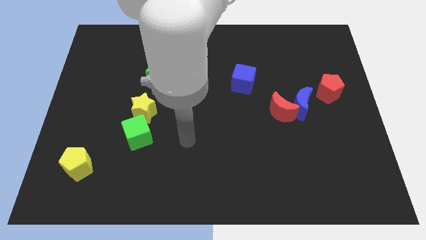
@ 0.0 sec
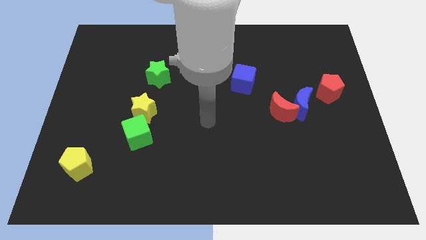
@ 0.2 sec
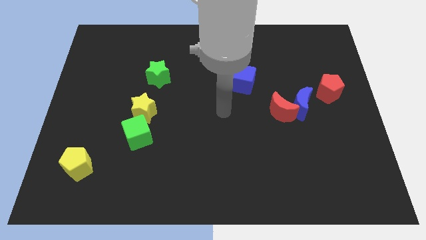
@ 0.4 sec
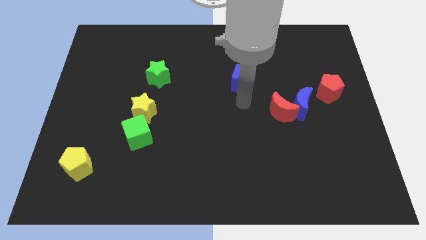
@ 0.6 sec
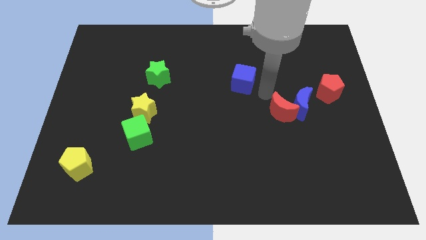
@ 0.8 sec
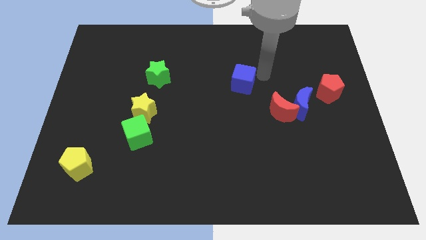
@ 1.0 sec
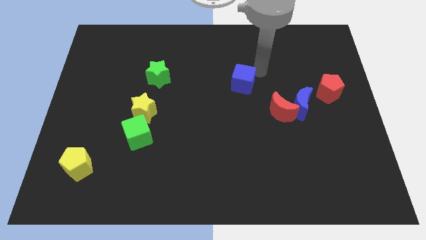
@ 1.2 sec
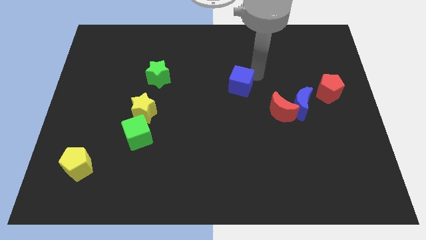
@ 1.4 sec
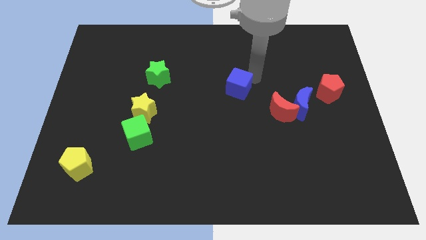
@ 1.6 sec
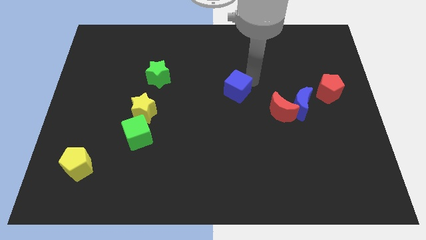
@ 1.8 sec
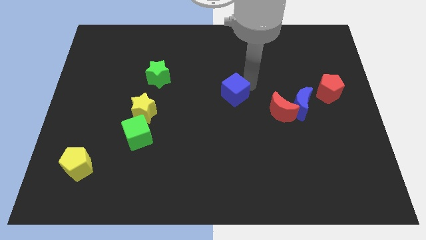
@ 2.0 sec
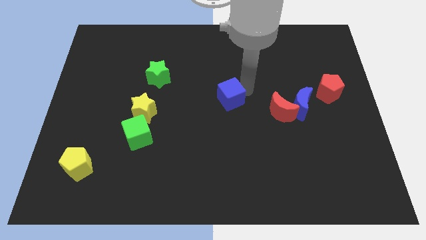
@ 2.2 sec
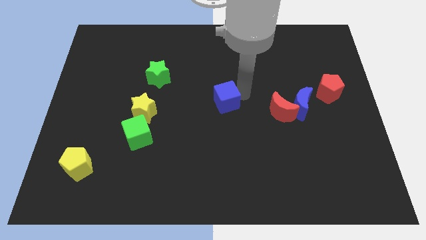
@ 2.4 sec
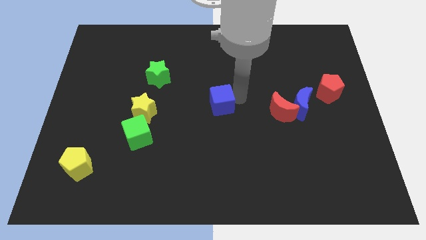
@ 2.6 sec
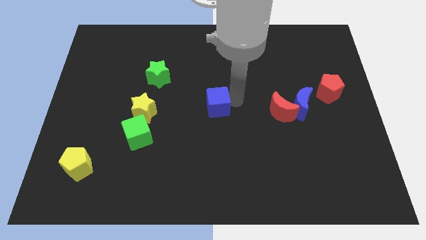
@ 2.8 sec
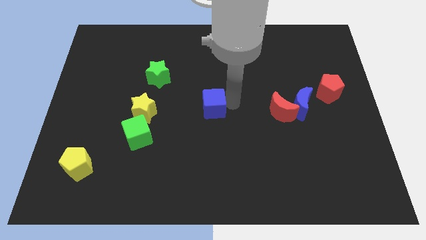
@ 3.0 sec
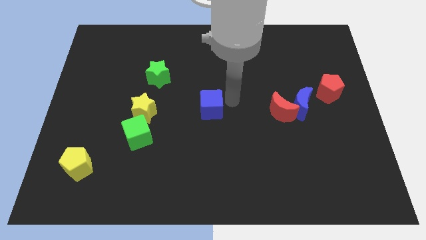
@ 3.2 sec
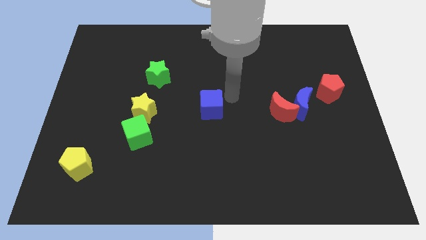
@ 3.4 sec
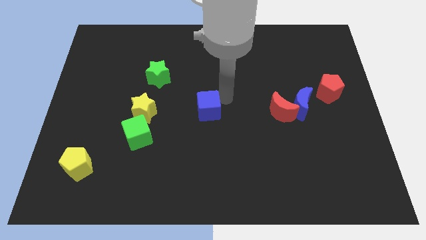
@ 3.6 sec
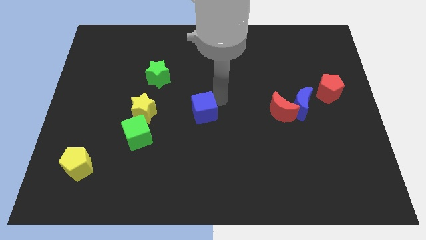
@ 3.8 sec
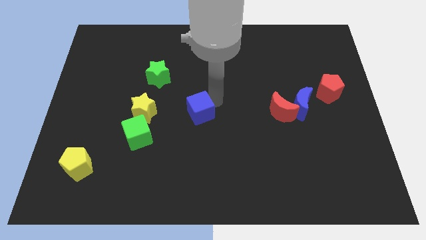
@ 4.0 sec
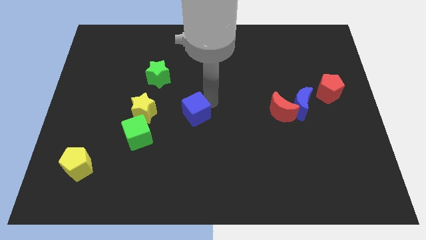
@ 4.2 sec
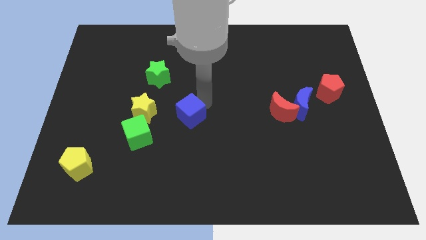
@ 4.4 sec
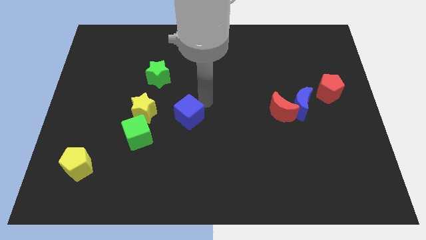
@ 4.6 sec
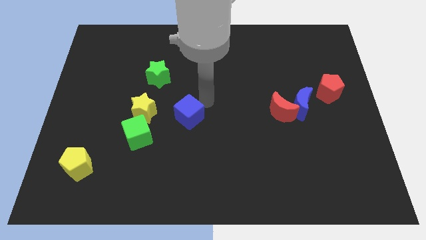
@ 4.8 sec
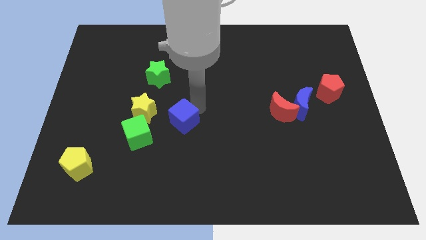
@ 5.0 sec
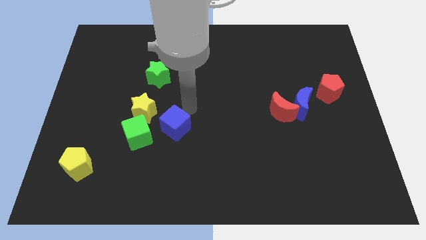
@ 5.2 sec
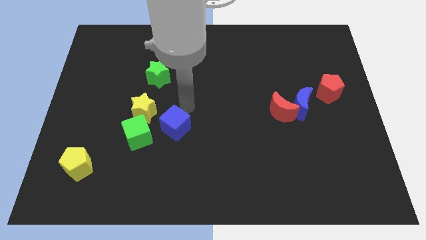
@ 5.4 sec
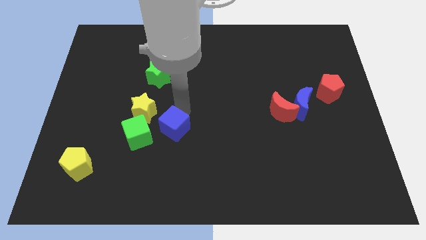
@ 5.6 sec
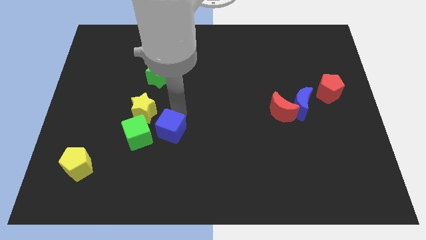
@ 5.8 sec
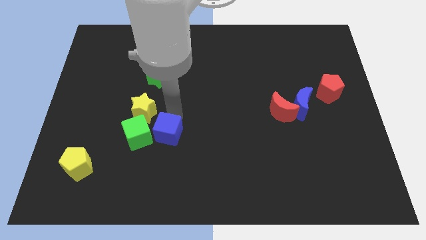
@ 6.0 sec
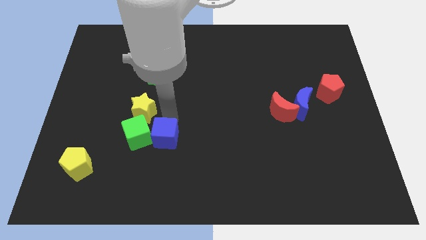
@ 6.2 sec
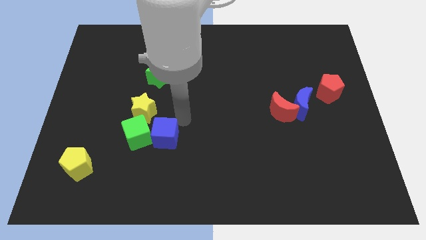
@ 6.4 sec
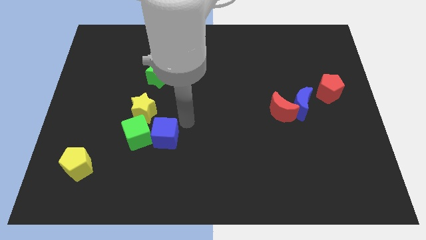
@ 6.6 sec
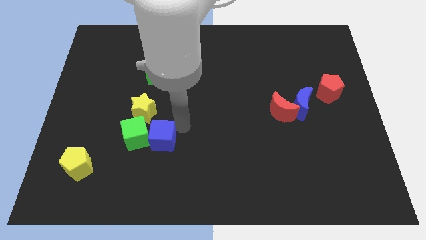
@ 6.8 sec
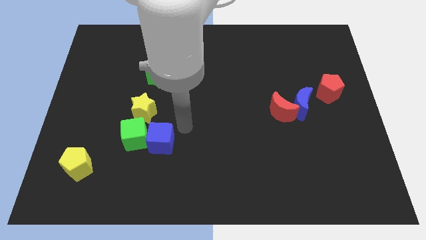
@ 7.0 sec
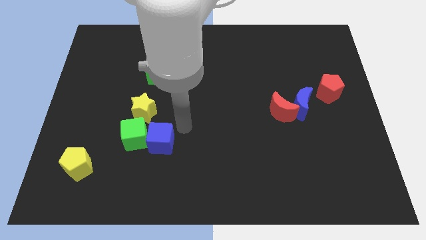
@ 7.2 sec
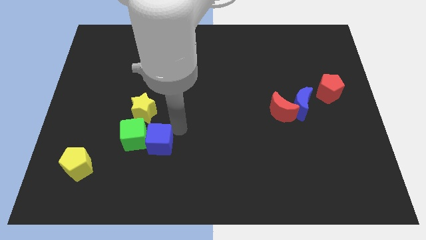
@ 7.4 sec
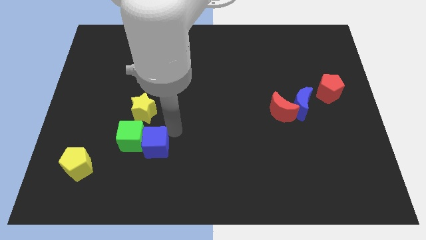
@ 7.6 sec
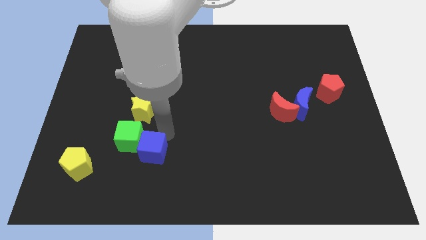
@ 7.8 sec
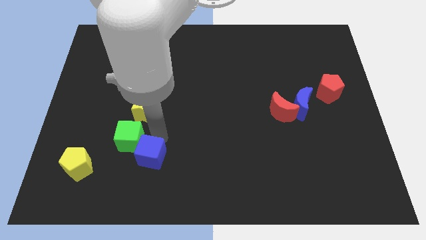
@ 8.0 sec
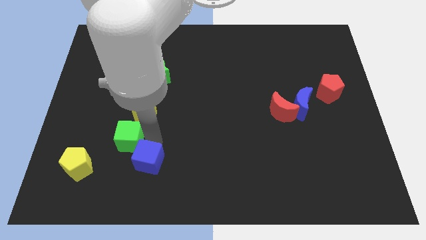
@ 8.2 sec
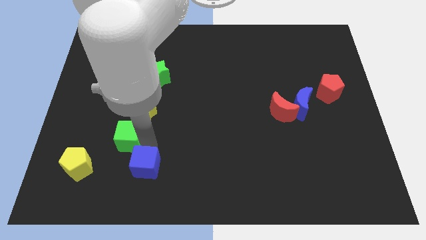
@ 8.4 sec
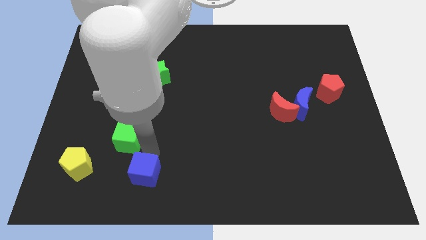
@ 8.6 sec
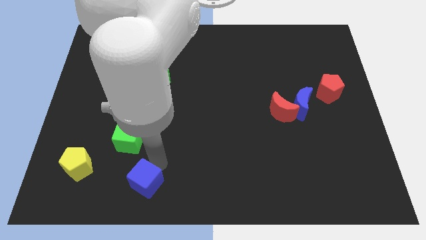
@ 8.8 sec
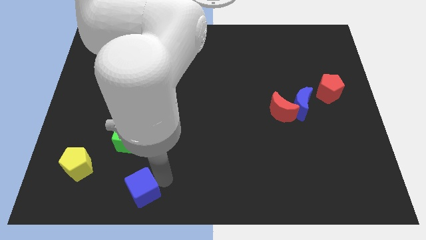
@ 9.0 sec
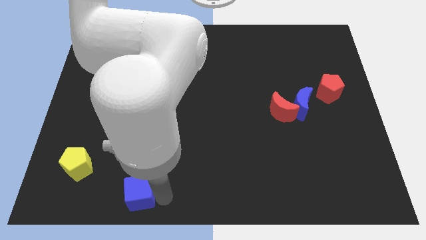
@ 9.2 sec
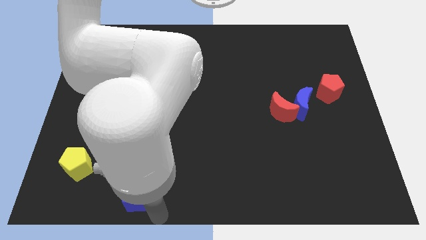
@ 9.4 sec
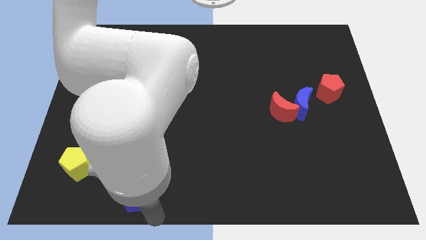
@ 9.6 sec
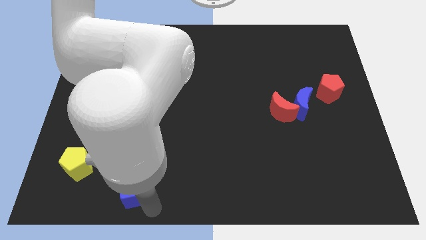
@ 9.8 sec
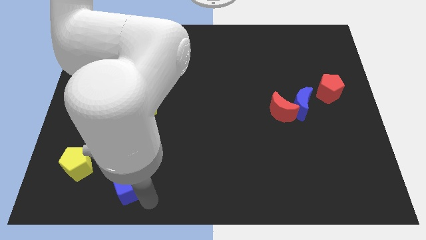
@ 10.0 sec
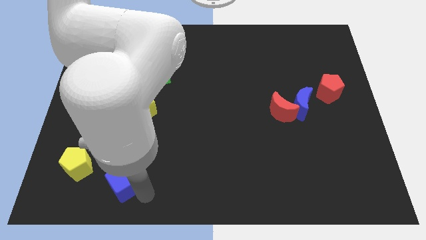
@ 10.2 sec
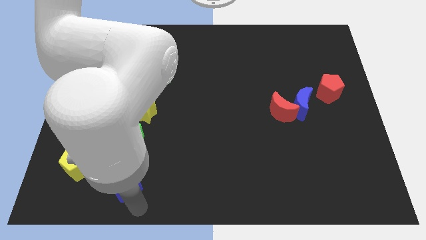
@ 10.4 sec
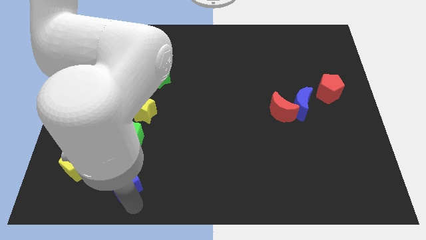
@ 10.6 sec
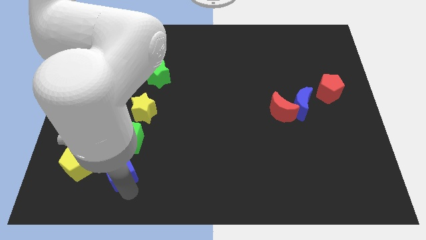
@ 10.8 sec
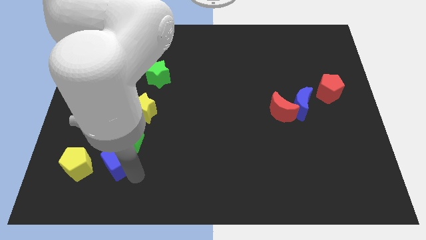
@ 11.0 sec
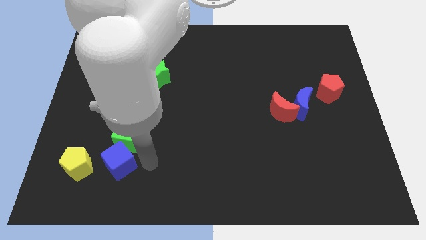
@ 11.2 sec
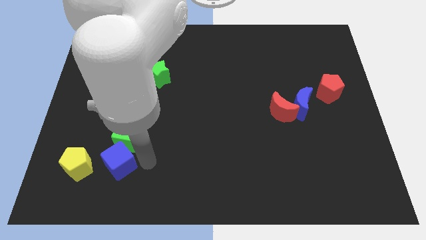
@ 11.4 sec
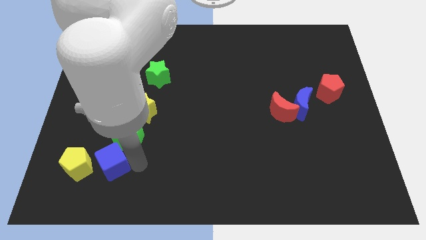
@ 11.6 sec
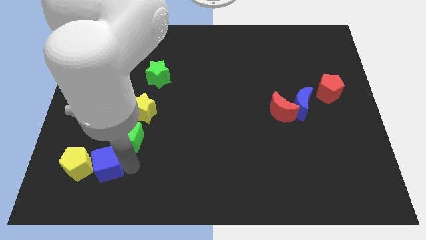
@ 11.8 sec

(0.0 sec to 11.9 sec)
slide the blue cube next to the yellow pentagon

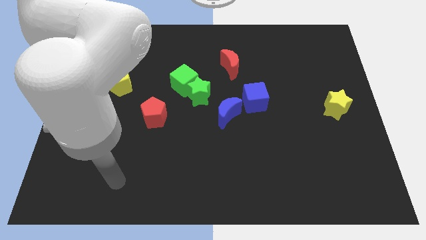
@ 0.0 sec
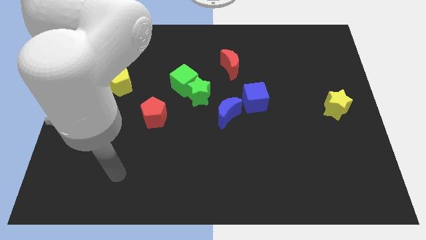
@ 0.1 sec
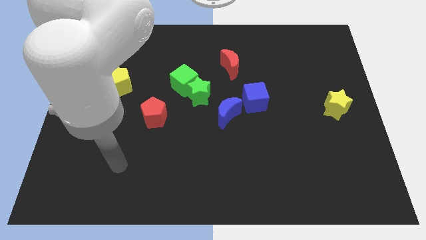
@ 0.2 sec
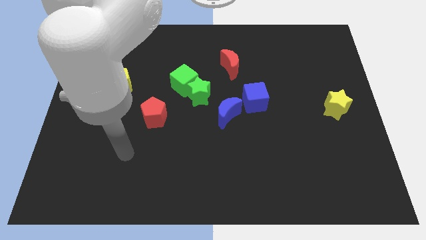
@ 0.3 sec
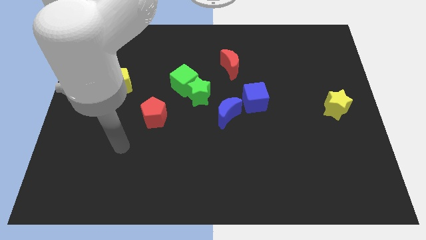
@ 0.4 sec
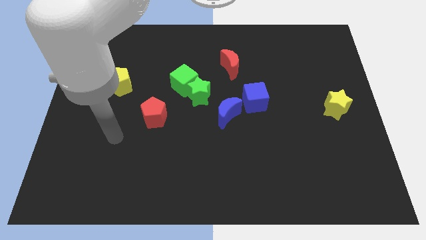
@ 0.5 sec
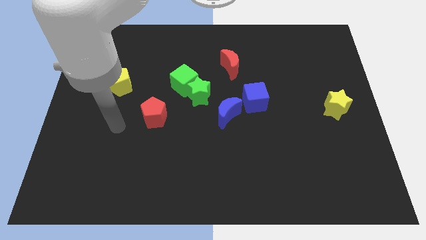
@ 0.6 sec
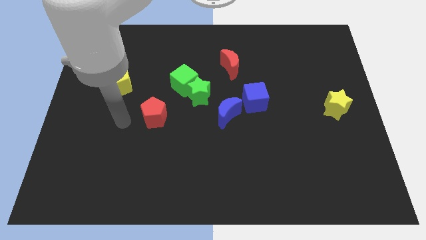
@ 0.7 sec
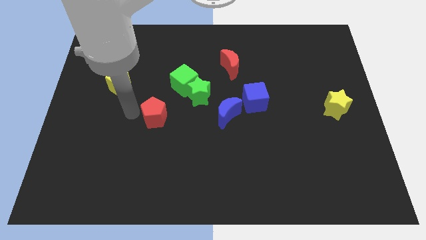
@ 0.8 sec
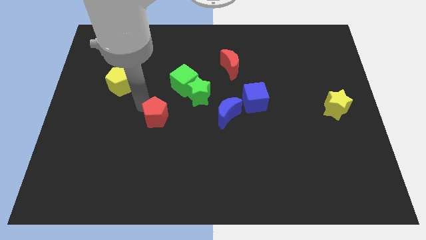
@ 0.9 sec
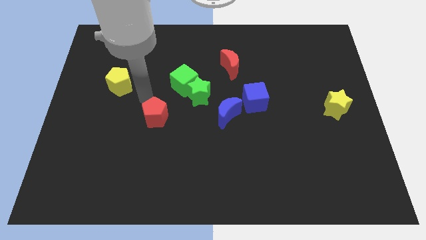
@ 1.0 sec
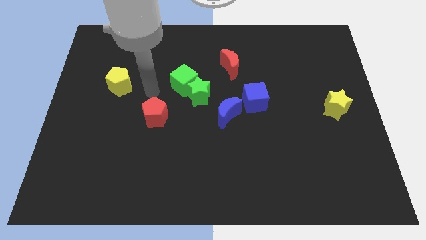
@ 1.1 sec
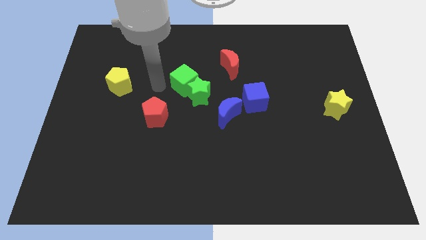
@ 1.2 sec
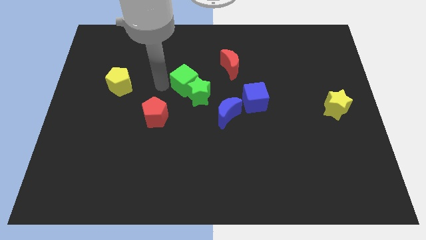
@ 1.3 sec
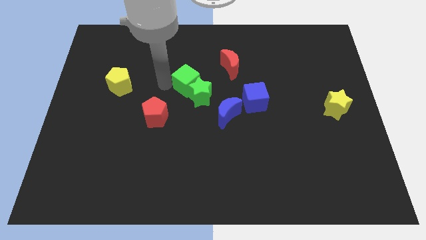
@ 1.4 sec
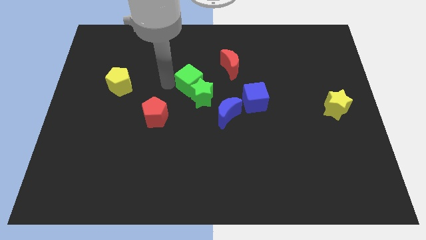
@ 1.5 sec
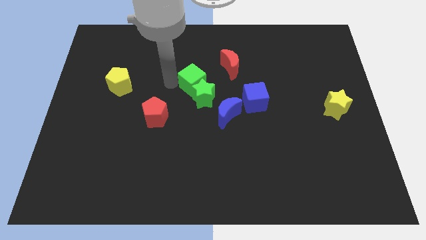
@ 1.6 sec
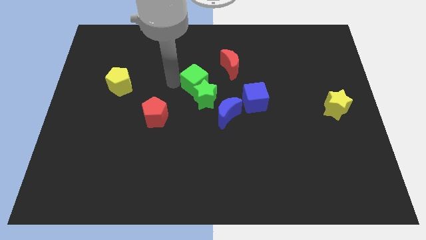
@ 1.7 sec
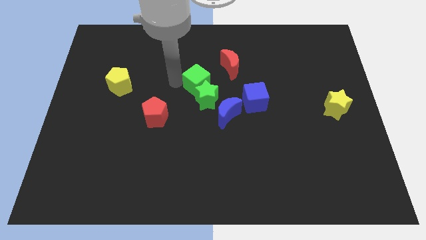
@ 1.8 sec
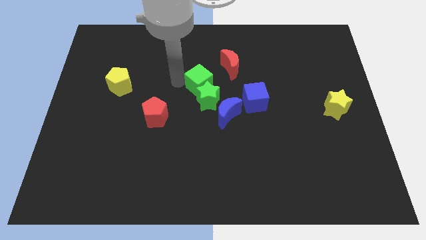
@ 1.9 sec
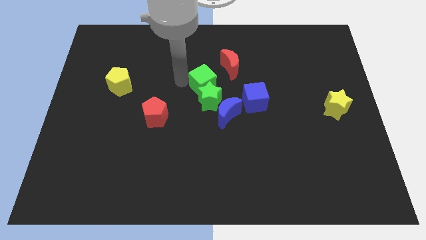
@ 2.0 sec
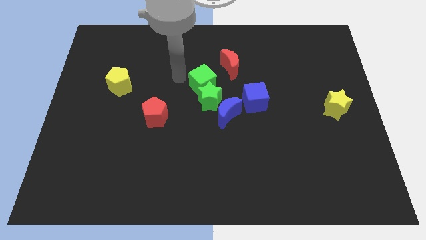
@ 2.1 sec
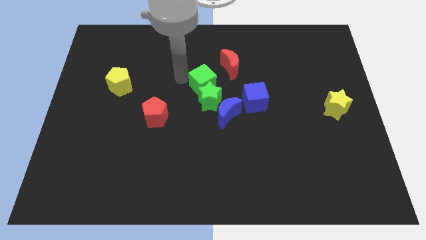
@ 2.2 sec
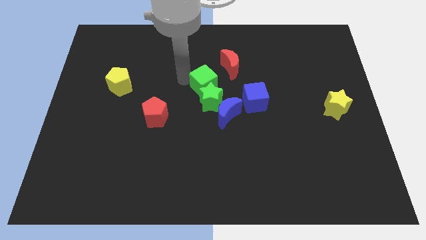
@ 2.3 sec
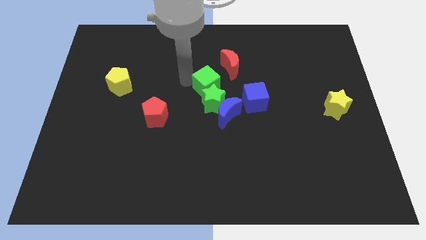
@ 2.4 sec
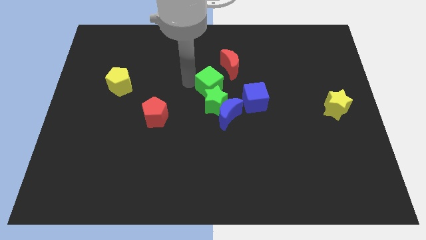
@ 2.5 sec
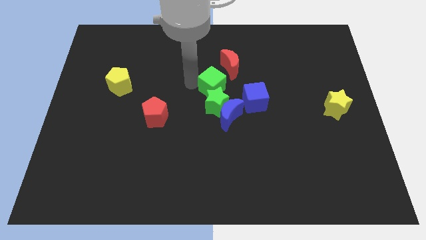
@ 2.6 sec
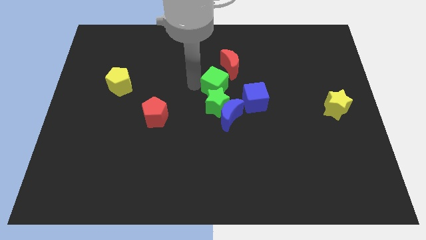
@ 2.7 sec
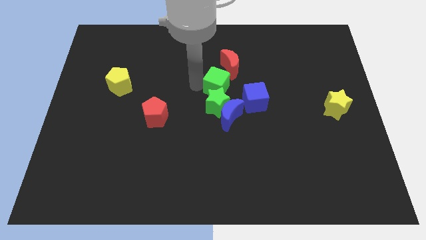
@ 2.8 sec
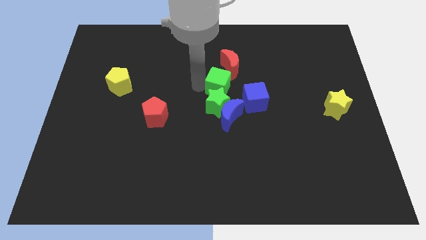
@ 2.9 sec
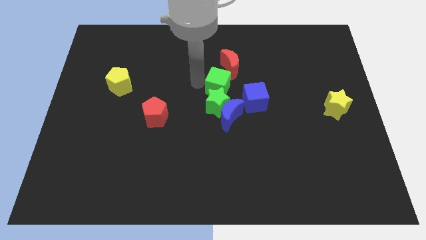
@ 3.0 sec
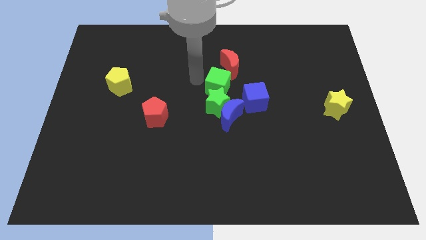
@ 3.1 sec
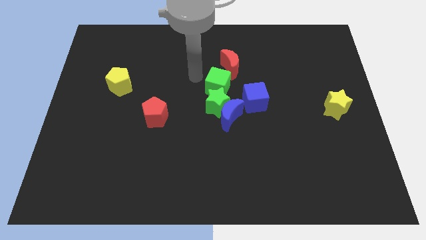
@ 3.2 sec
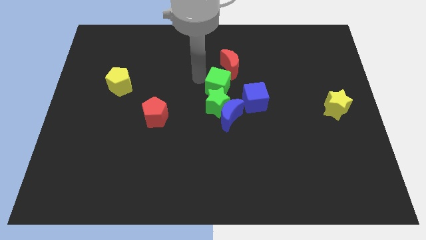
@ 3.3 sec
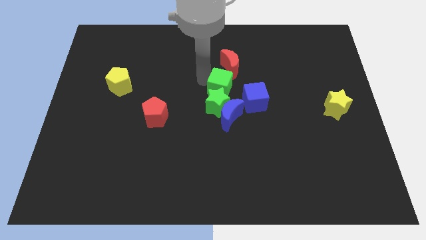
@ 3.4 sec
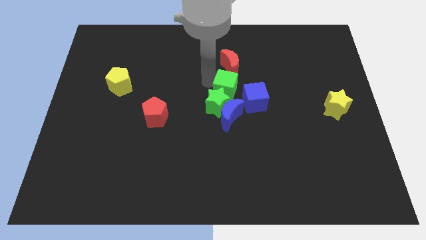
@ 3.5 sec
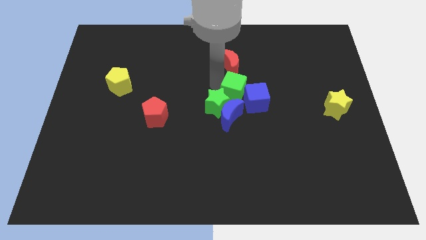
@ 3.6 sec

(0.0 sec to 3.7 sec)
move the green cube towards the blue cube
